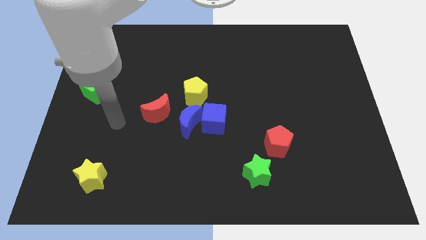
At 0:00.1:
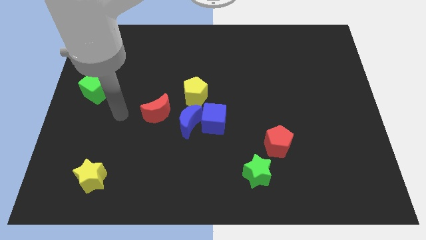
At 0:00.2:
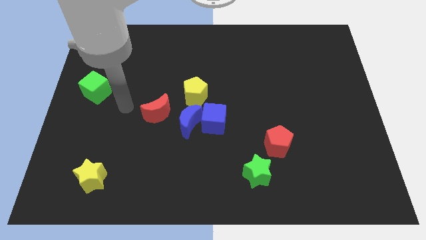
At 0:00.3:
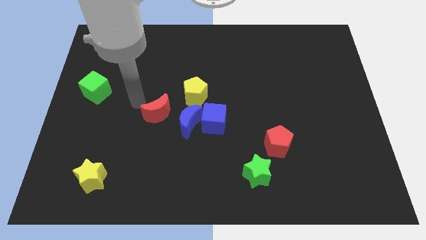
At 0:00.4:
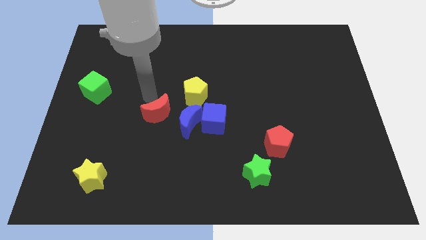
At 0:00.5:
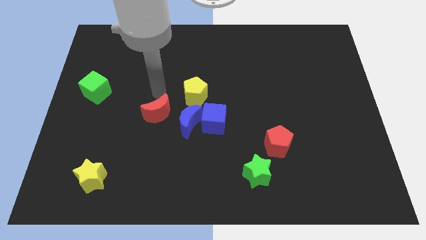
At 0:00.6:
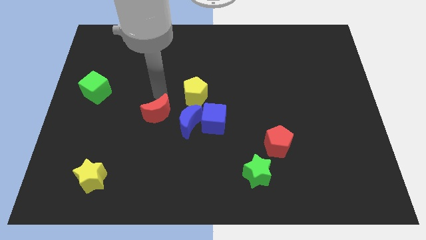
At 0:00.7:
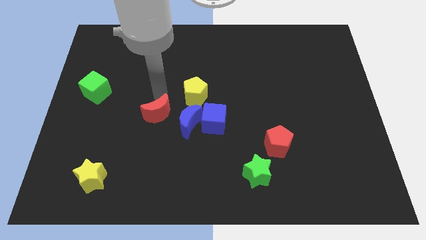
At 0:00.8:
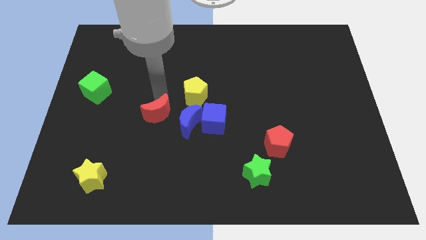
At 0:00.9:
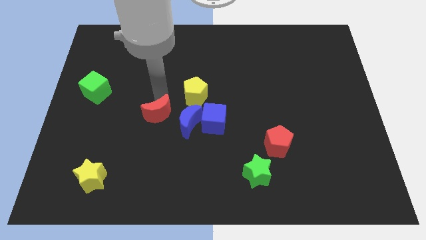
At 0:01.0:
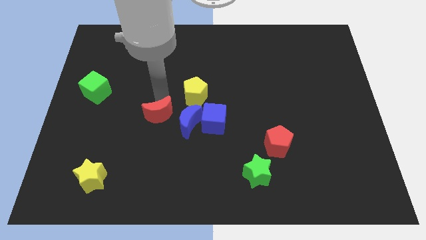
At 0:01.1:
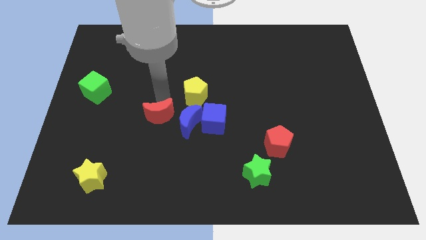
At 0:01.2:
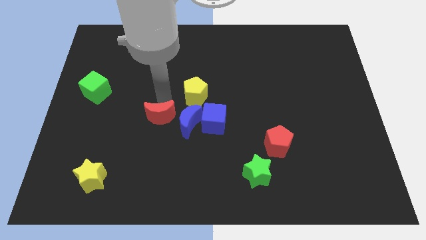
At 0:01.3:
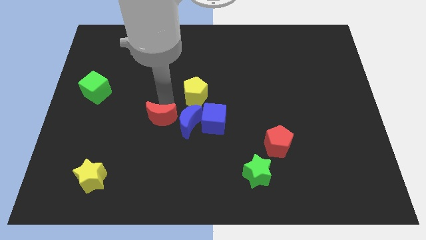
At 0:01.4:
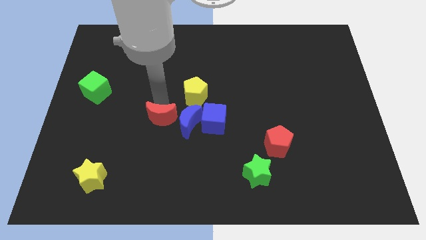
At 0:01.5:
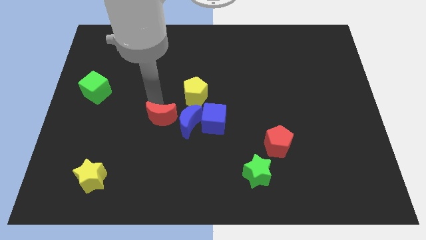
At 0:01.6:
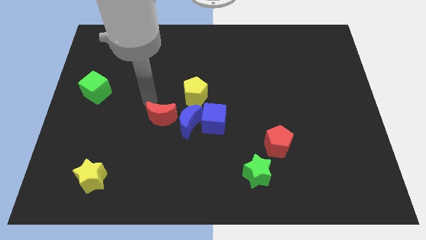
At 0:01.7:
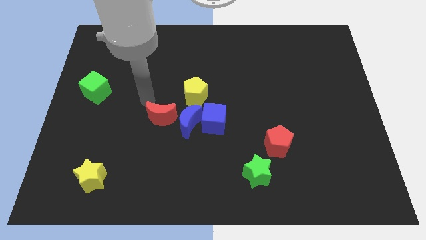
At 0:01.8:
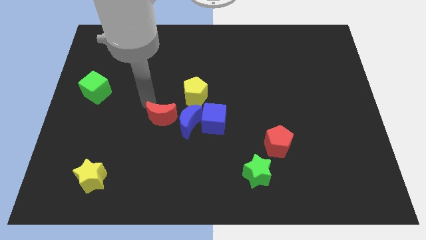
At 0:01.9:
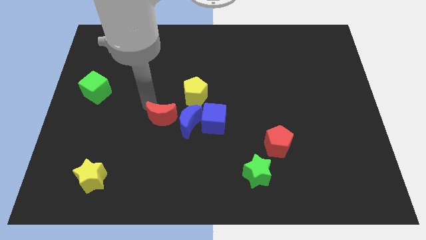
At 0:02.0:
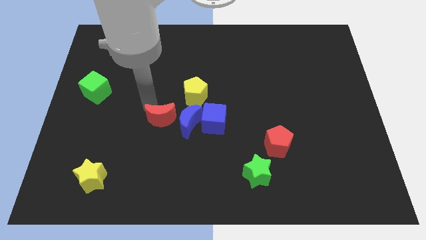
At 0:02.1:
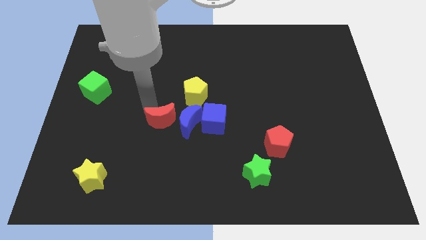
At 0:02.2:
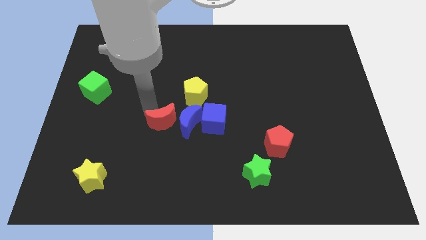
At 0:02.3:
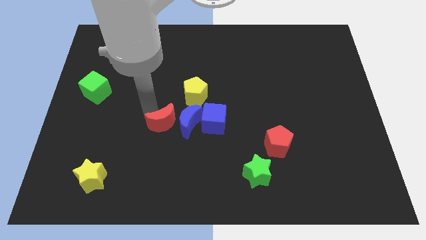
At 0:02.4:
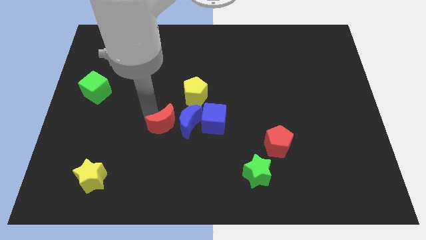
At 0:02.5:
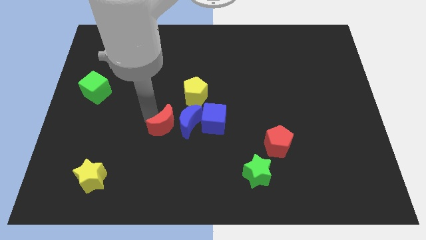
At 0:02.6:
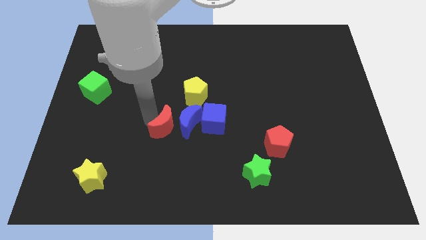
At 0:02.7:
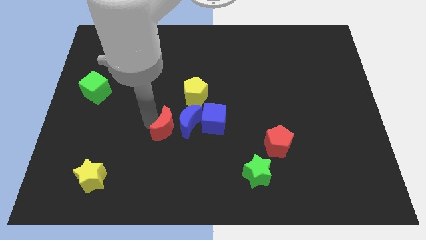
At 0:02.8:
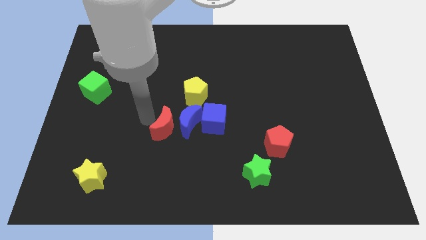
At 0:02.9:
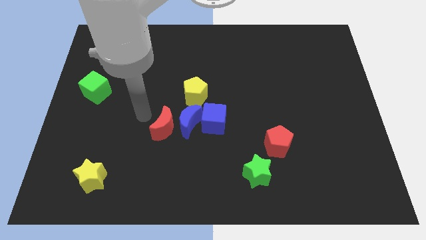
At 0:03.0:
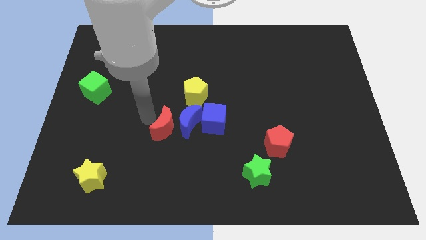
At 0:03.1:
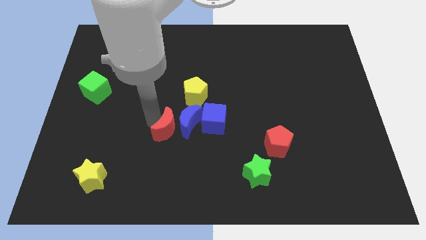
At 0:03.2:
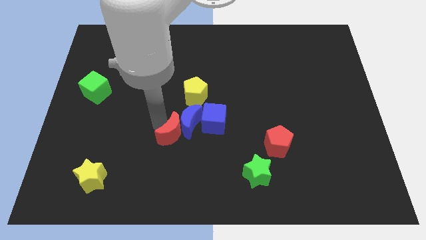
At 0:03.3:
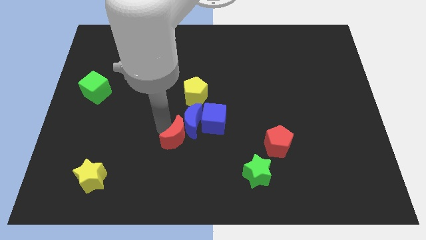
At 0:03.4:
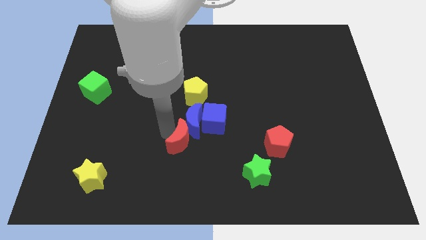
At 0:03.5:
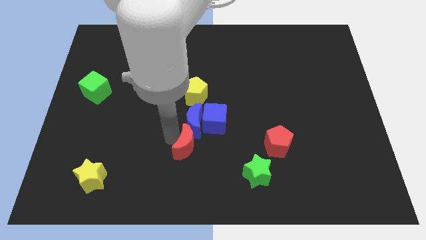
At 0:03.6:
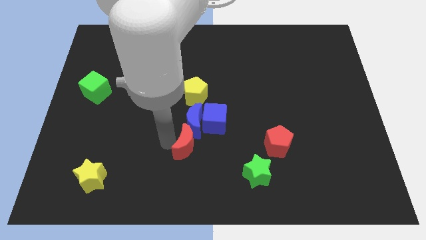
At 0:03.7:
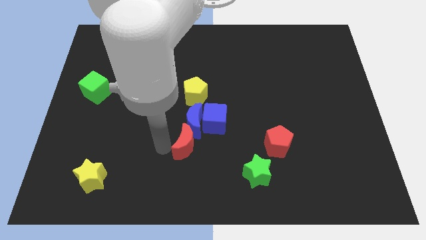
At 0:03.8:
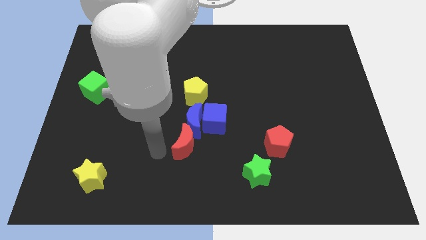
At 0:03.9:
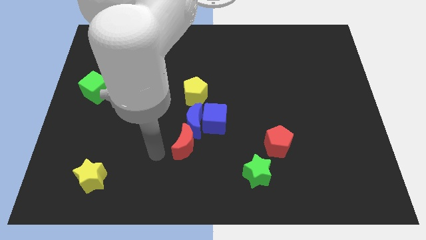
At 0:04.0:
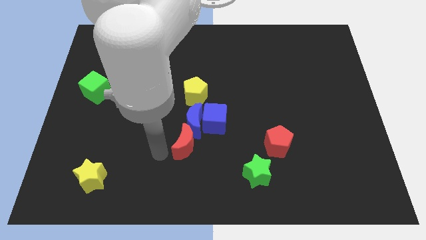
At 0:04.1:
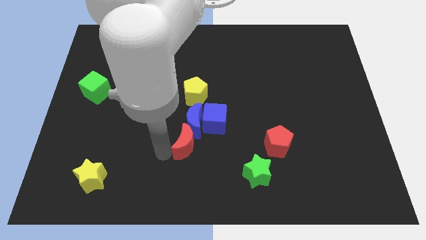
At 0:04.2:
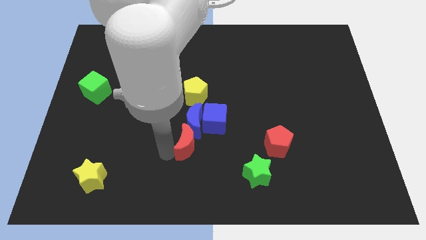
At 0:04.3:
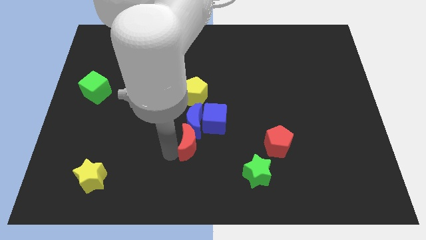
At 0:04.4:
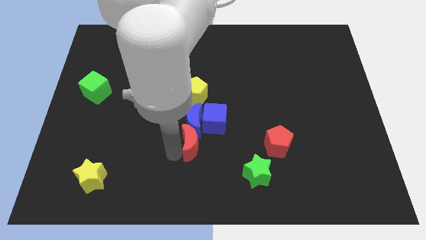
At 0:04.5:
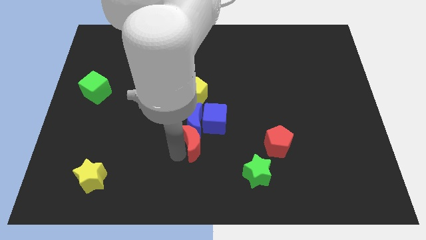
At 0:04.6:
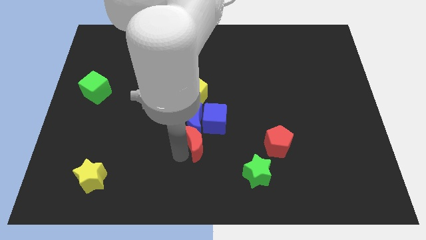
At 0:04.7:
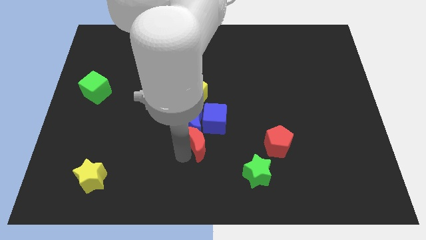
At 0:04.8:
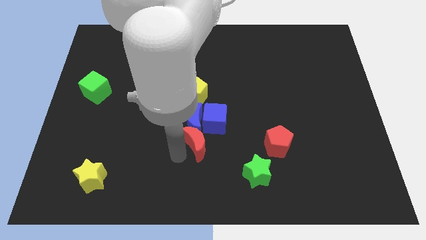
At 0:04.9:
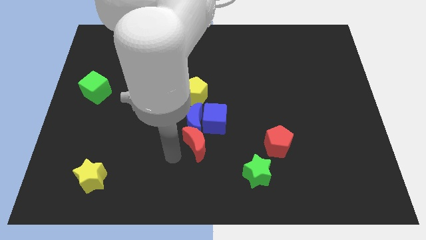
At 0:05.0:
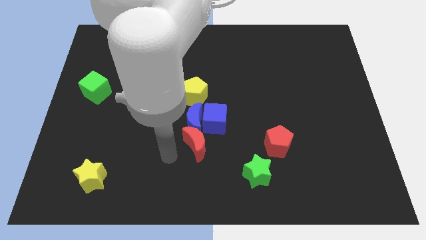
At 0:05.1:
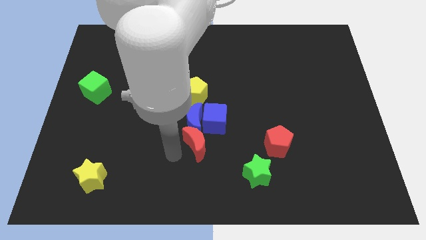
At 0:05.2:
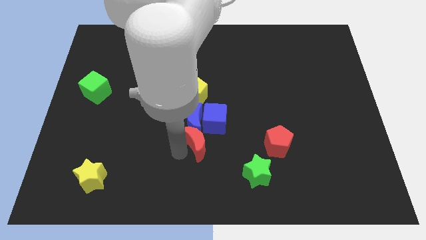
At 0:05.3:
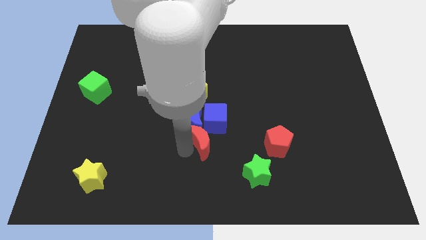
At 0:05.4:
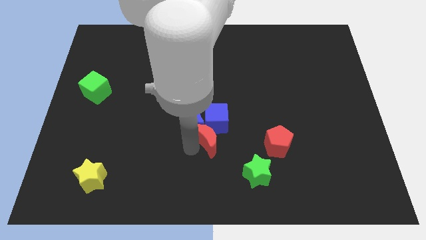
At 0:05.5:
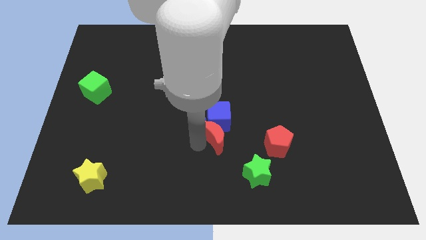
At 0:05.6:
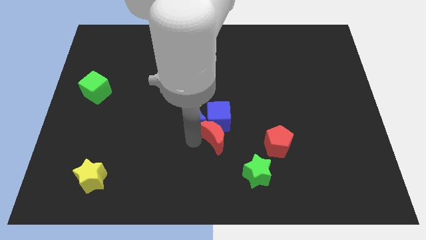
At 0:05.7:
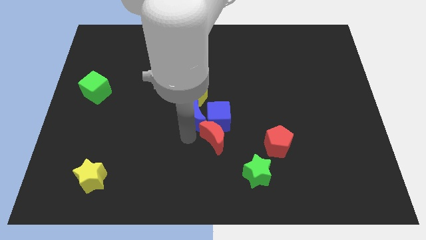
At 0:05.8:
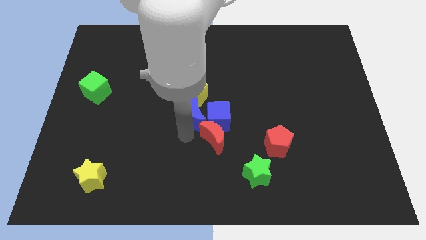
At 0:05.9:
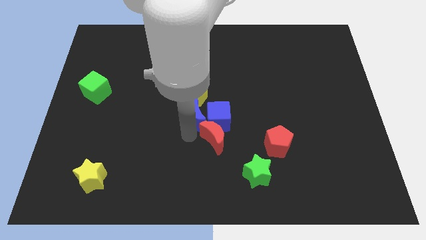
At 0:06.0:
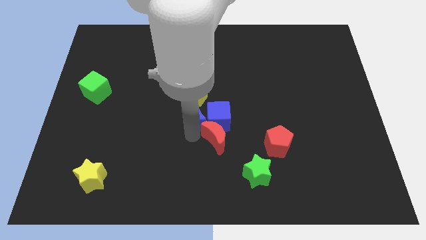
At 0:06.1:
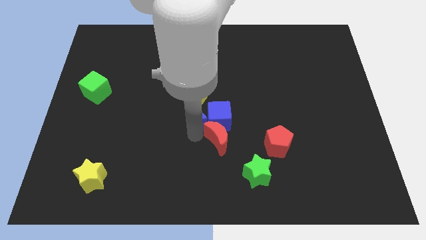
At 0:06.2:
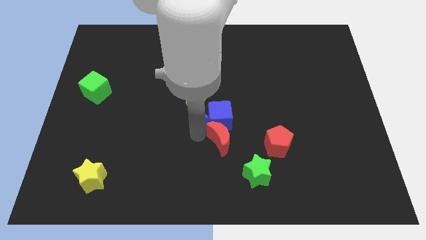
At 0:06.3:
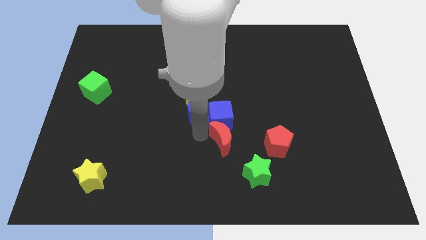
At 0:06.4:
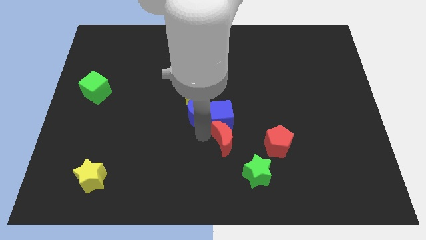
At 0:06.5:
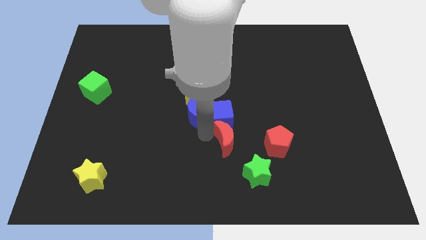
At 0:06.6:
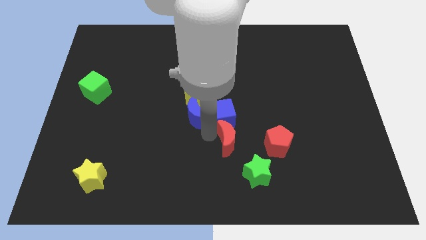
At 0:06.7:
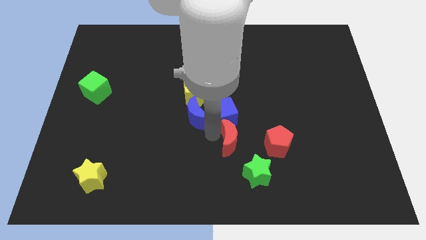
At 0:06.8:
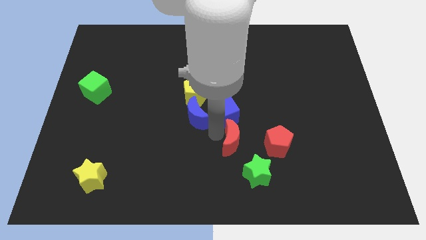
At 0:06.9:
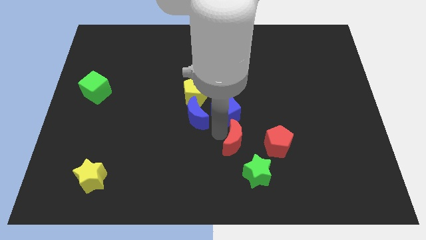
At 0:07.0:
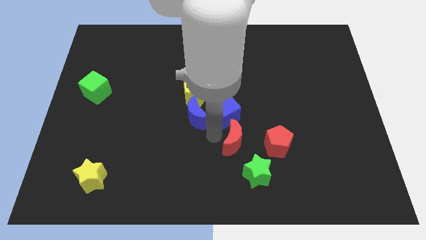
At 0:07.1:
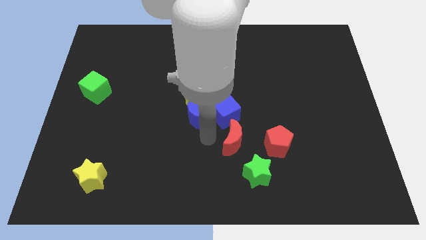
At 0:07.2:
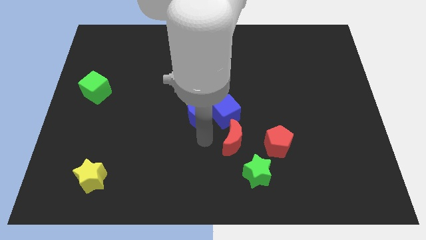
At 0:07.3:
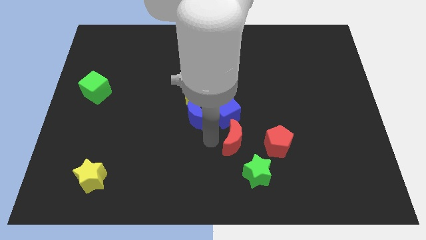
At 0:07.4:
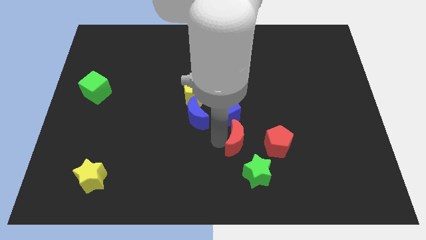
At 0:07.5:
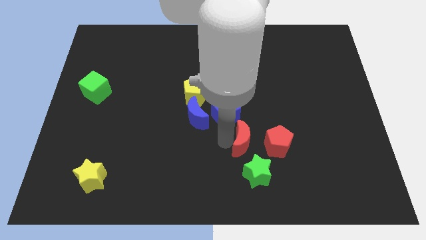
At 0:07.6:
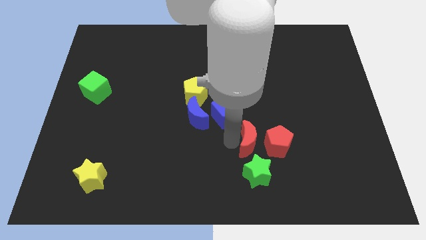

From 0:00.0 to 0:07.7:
put the red moon close to the red pentagon
